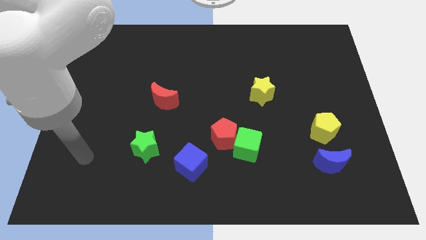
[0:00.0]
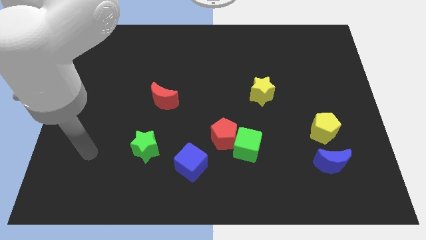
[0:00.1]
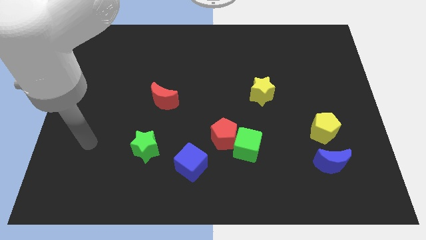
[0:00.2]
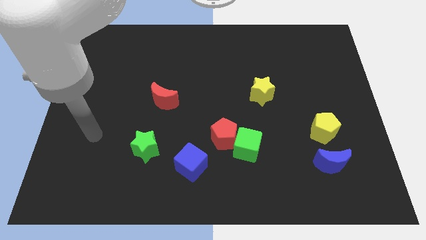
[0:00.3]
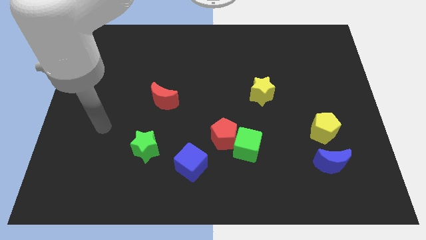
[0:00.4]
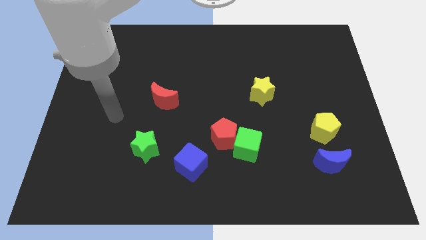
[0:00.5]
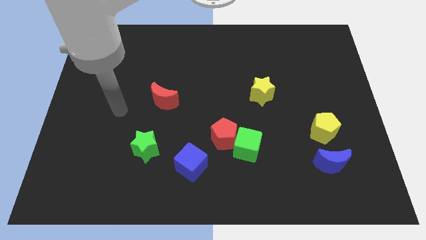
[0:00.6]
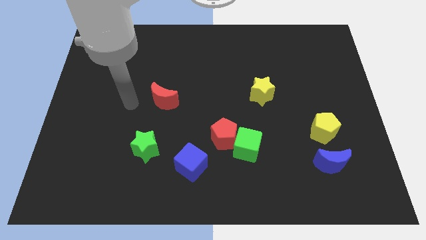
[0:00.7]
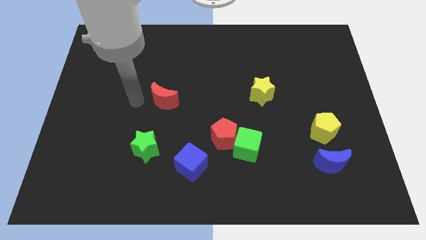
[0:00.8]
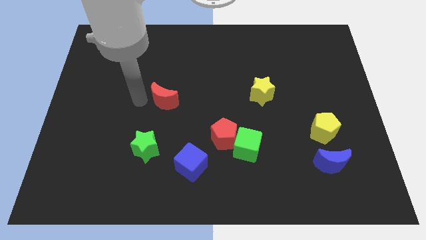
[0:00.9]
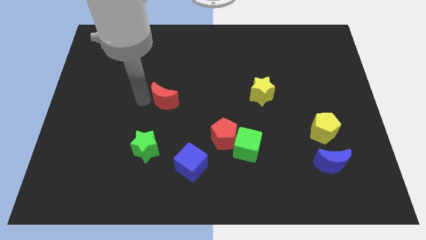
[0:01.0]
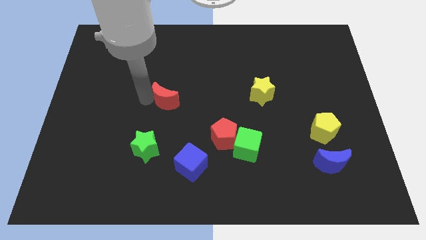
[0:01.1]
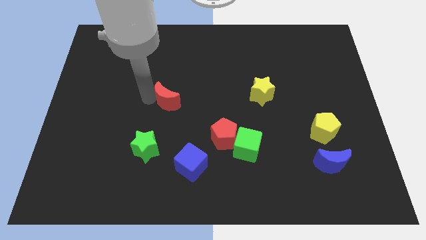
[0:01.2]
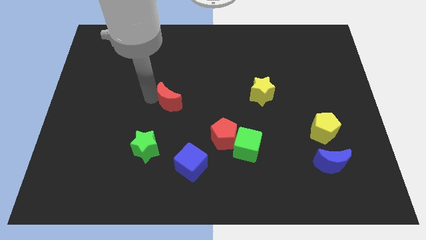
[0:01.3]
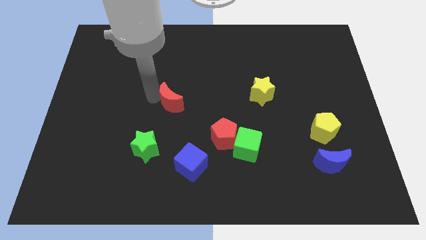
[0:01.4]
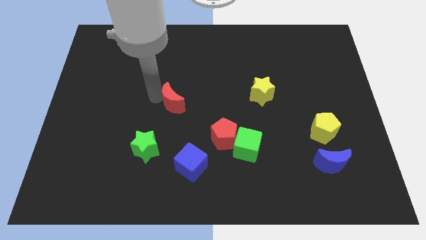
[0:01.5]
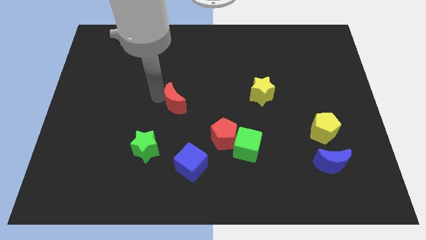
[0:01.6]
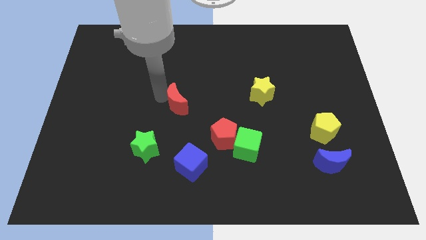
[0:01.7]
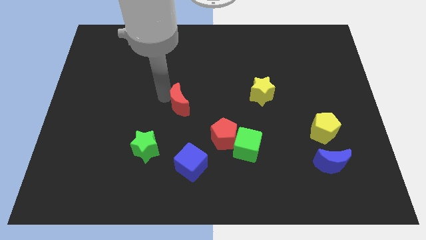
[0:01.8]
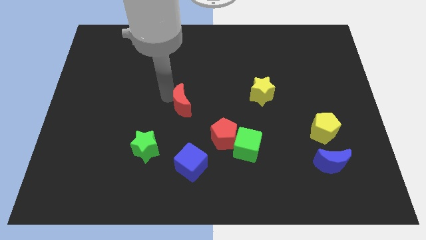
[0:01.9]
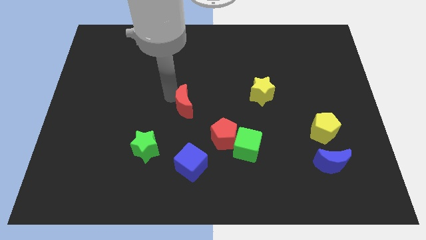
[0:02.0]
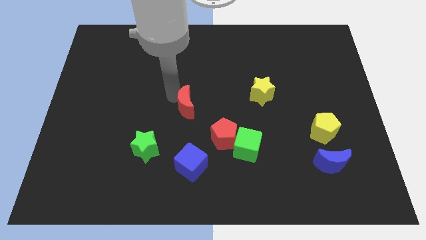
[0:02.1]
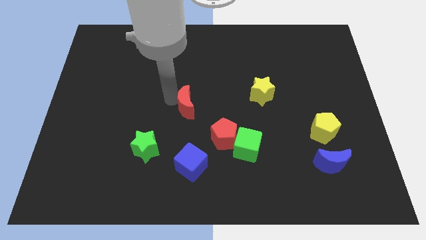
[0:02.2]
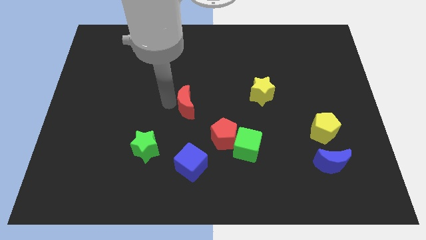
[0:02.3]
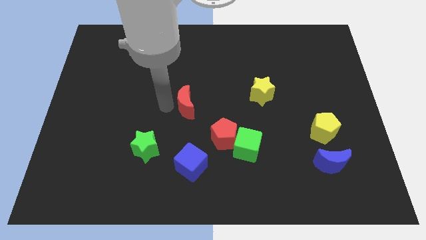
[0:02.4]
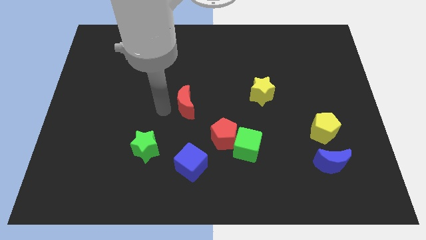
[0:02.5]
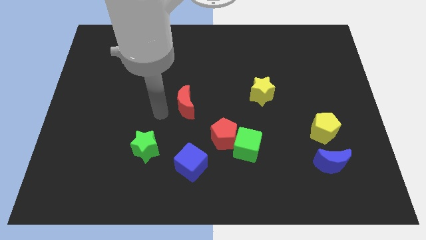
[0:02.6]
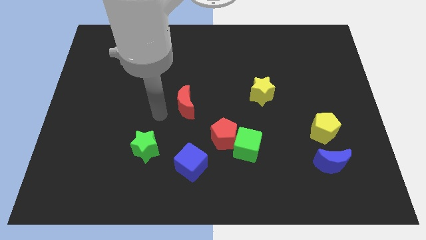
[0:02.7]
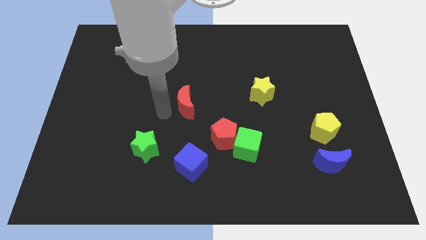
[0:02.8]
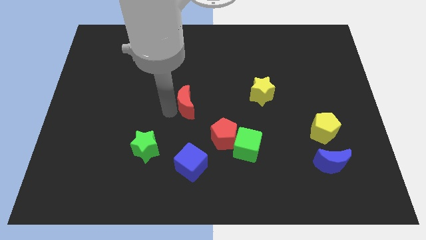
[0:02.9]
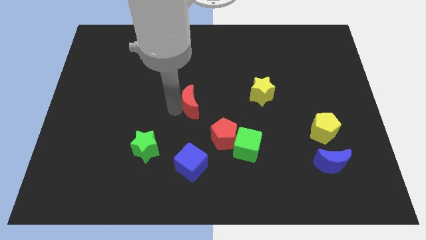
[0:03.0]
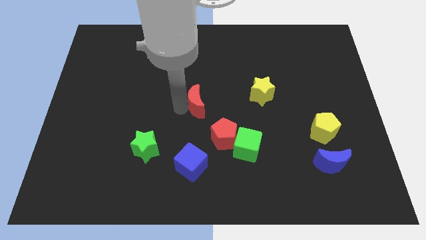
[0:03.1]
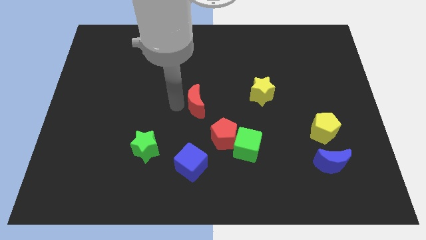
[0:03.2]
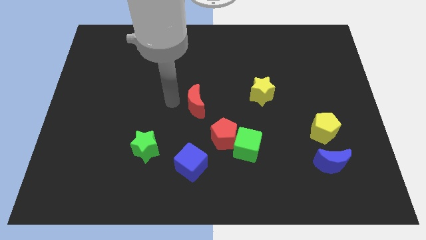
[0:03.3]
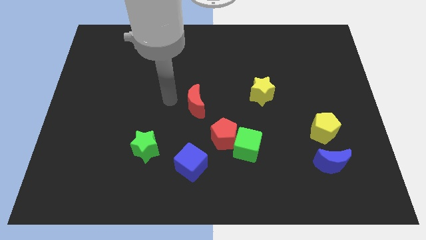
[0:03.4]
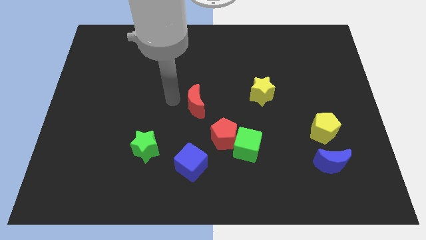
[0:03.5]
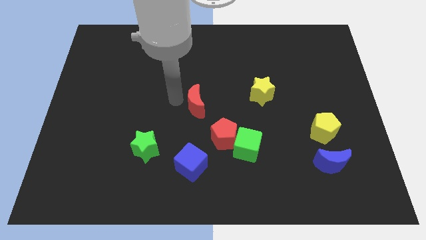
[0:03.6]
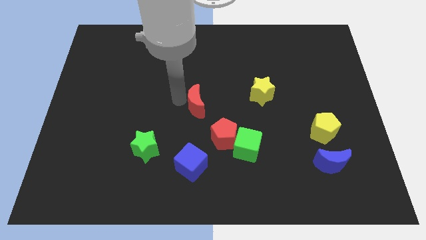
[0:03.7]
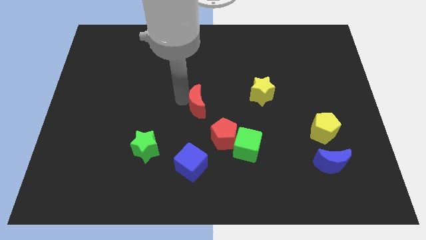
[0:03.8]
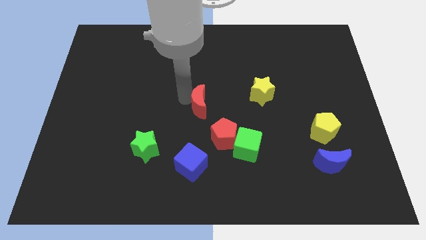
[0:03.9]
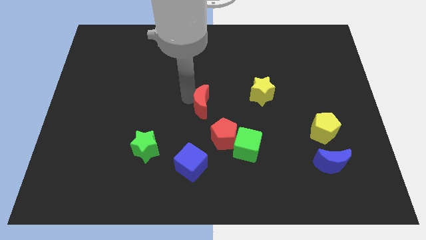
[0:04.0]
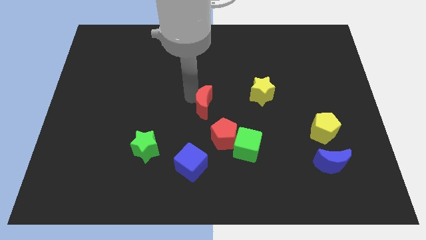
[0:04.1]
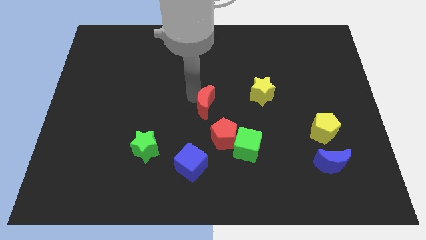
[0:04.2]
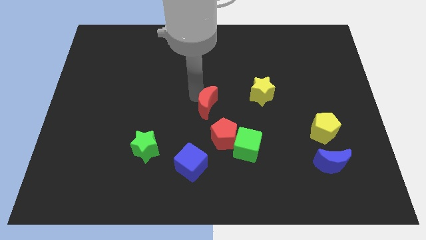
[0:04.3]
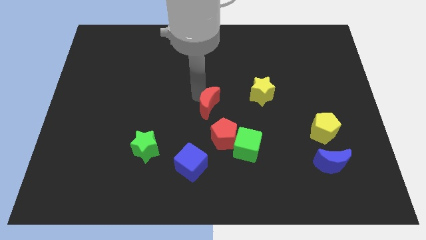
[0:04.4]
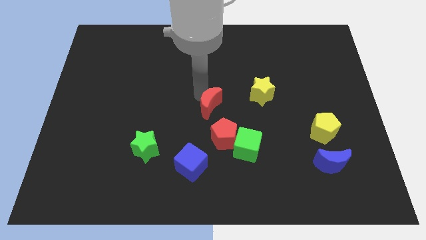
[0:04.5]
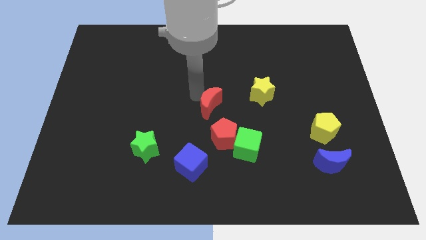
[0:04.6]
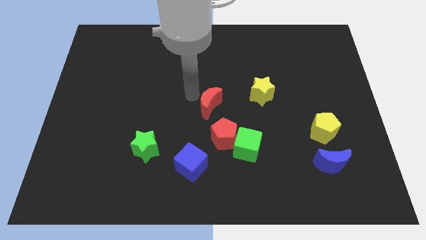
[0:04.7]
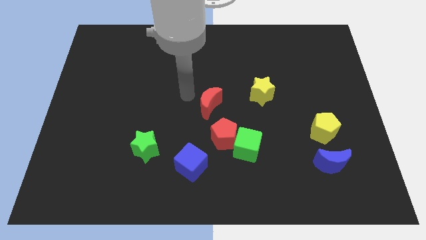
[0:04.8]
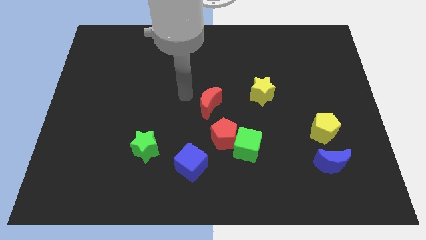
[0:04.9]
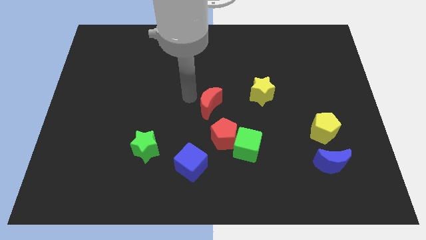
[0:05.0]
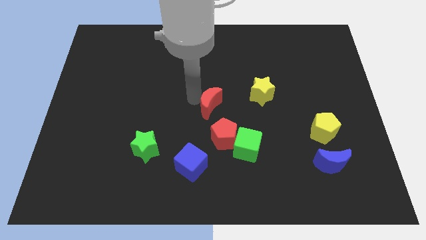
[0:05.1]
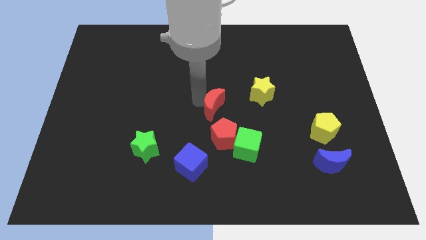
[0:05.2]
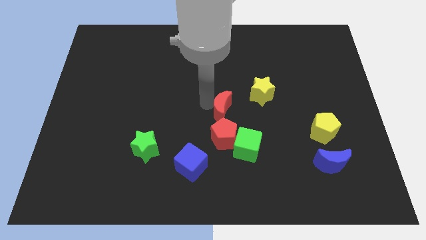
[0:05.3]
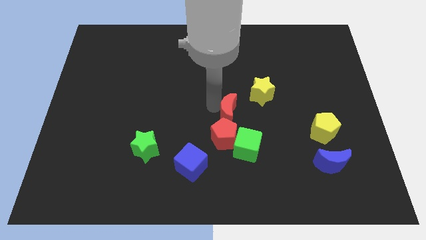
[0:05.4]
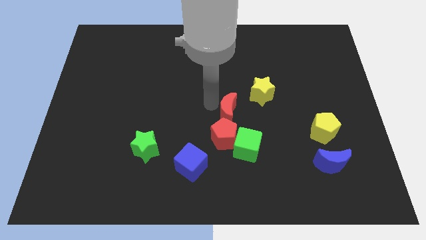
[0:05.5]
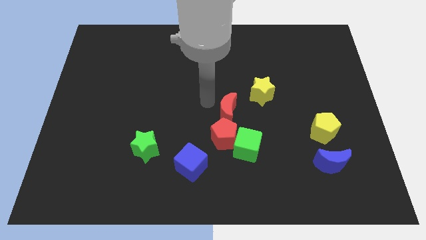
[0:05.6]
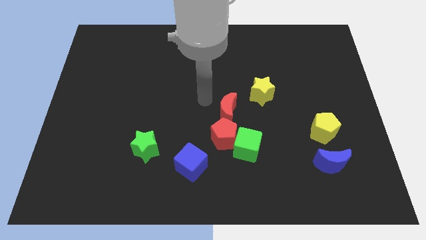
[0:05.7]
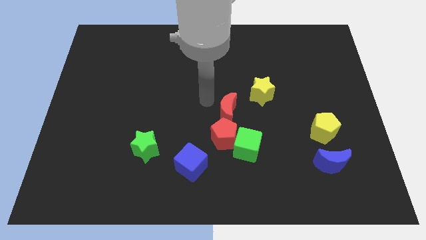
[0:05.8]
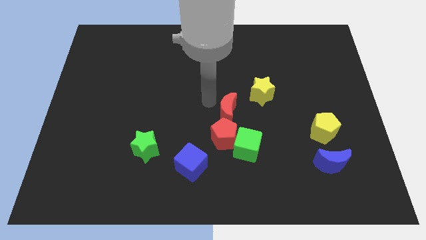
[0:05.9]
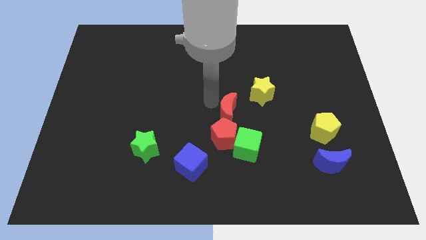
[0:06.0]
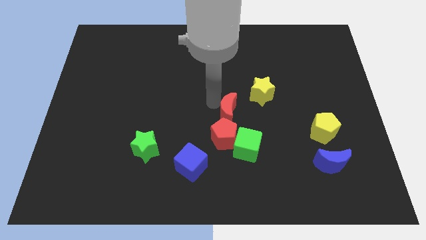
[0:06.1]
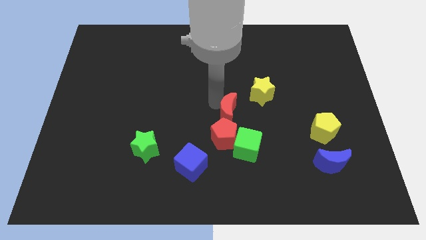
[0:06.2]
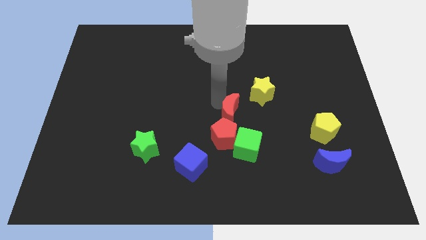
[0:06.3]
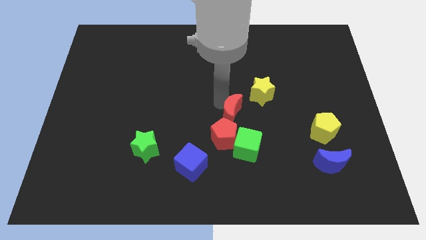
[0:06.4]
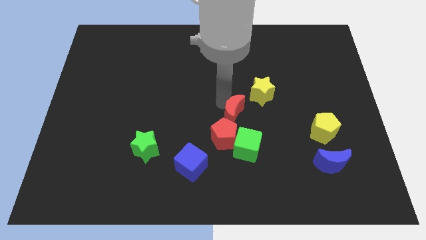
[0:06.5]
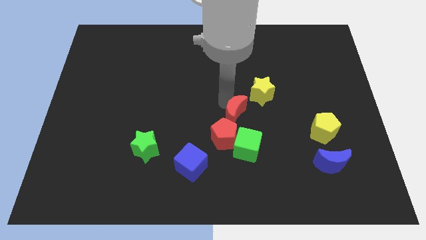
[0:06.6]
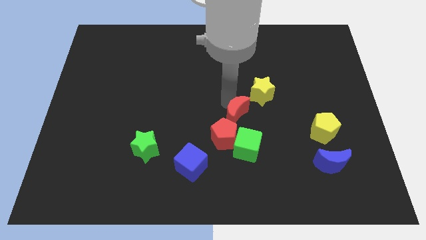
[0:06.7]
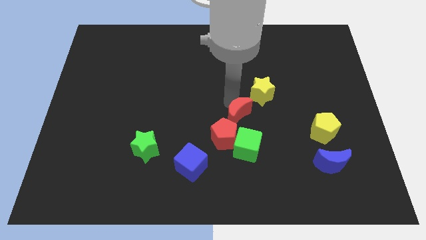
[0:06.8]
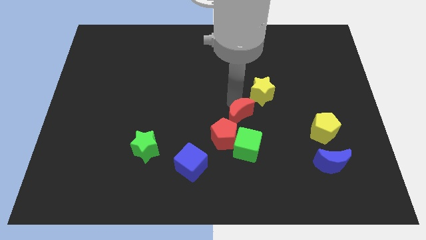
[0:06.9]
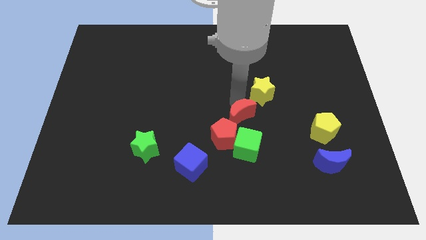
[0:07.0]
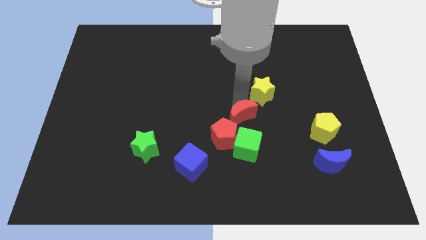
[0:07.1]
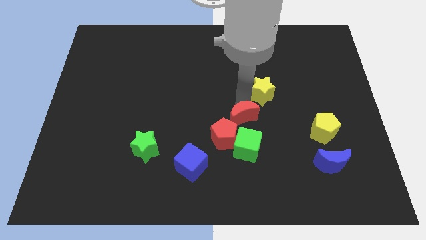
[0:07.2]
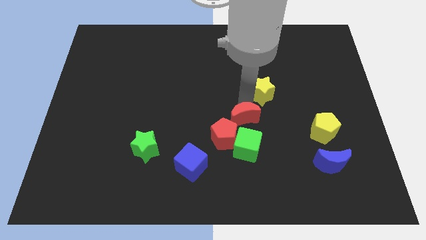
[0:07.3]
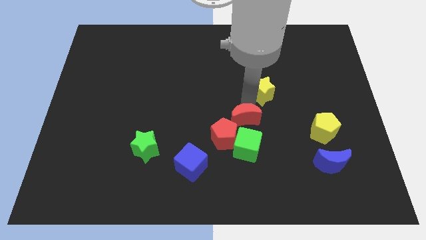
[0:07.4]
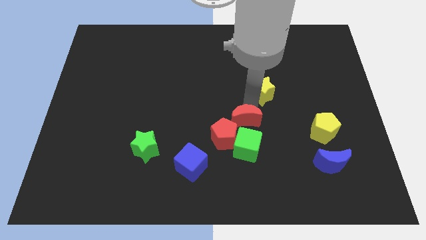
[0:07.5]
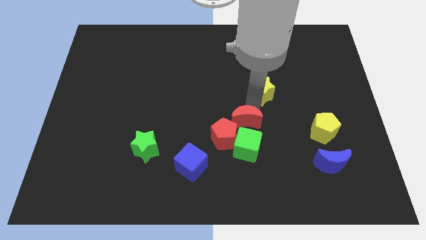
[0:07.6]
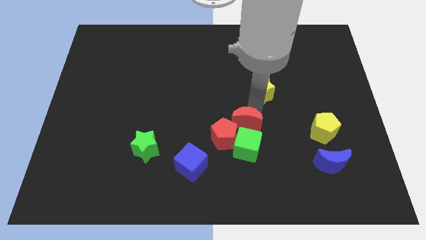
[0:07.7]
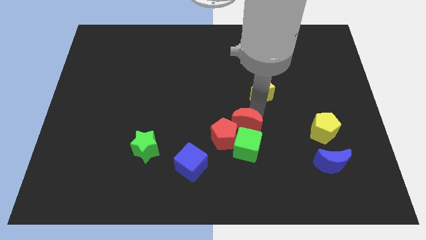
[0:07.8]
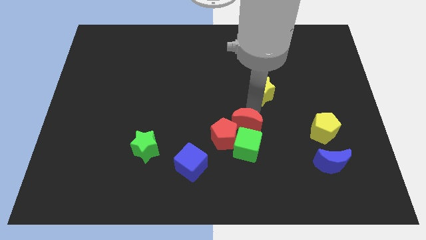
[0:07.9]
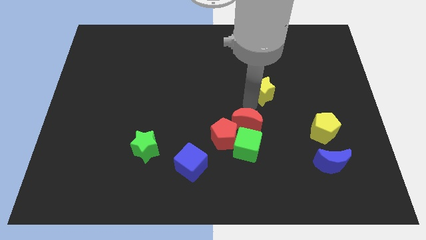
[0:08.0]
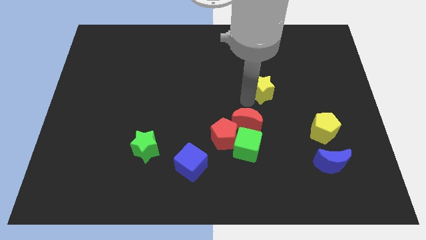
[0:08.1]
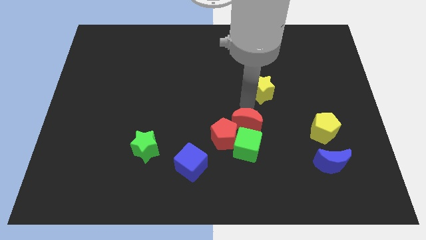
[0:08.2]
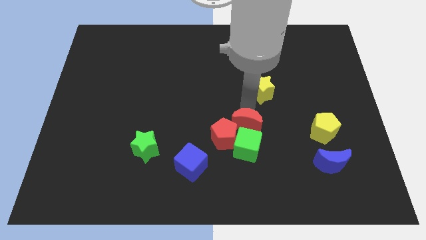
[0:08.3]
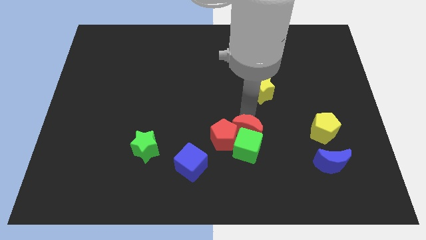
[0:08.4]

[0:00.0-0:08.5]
move the red moon to the green cube
